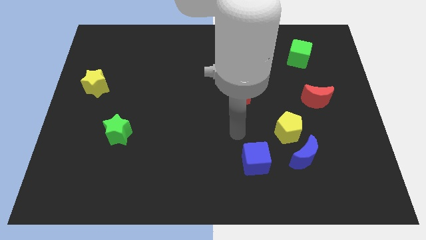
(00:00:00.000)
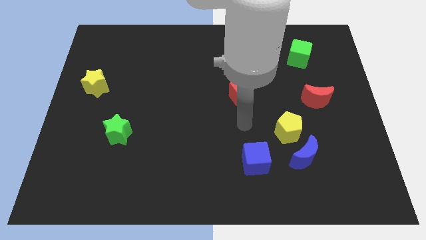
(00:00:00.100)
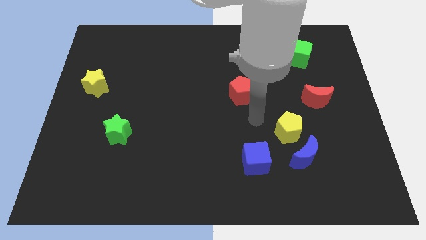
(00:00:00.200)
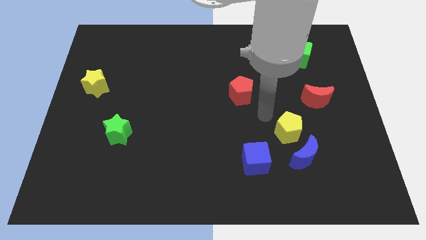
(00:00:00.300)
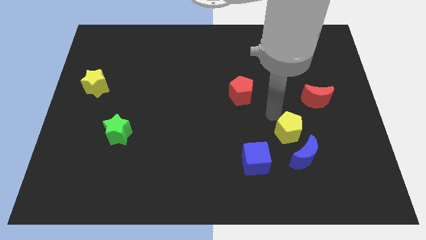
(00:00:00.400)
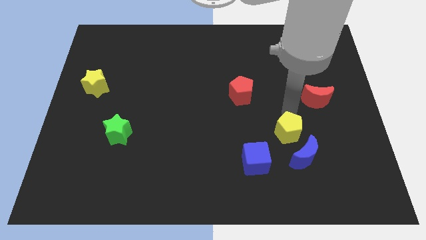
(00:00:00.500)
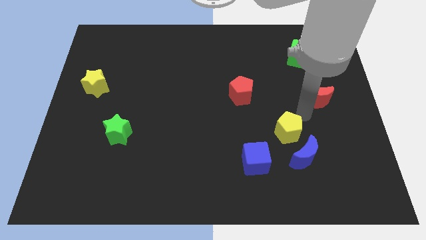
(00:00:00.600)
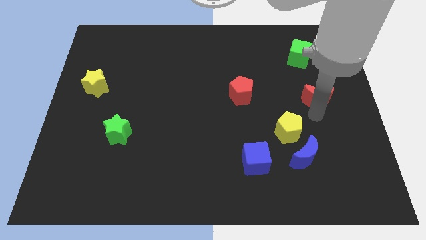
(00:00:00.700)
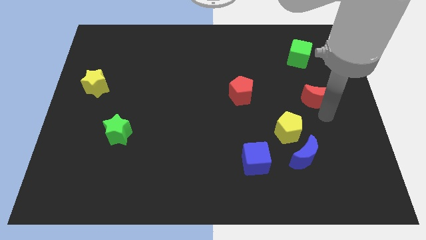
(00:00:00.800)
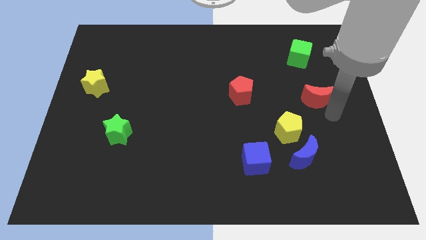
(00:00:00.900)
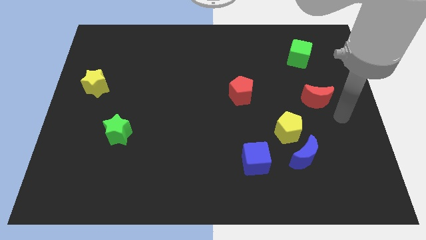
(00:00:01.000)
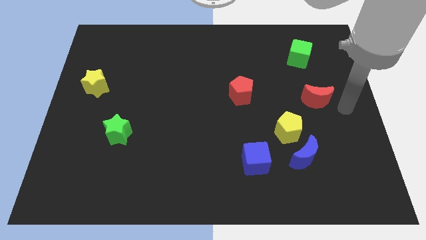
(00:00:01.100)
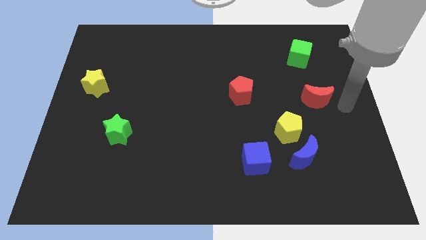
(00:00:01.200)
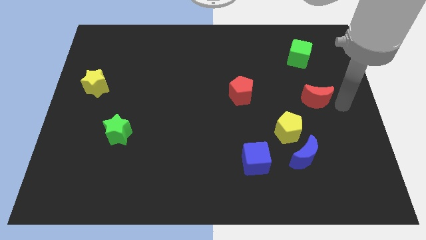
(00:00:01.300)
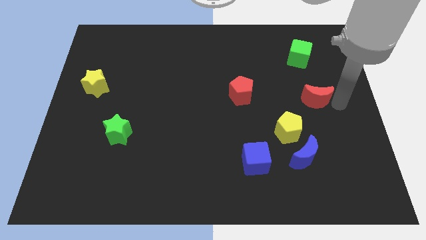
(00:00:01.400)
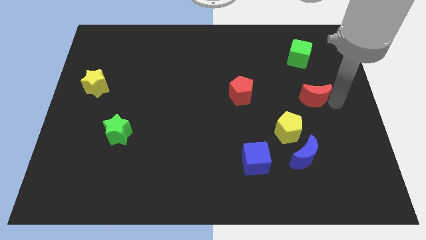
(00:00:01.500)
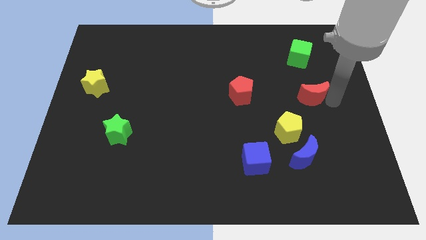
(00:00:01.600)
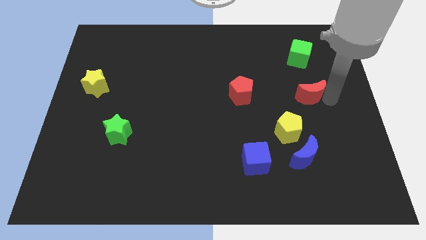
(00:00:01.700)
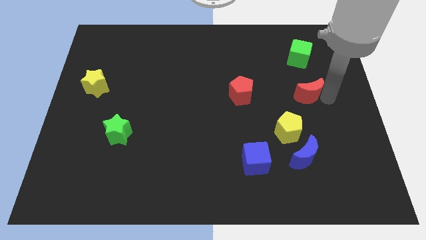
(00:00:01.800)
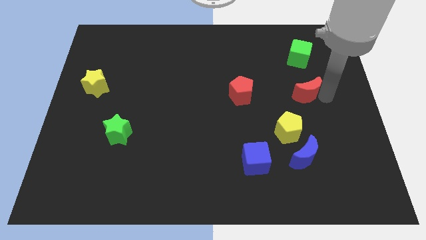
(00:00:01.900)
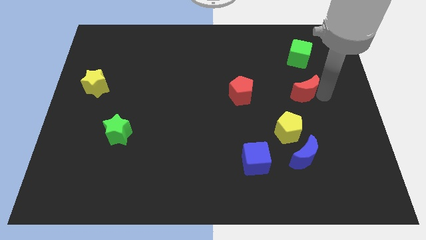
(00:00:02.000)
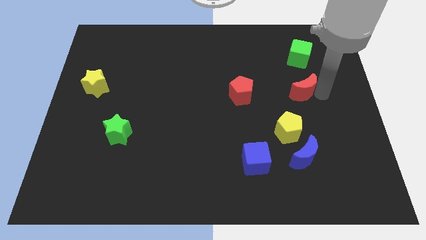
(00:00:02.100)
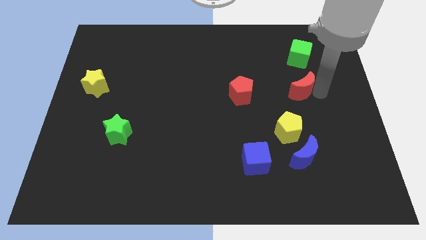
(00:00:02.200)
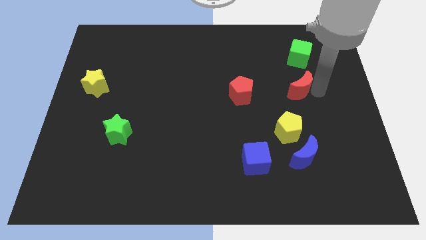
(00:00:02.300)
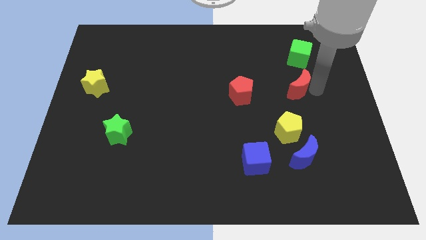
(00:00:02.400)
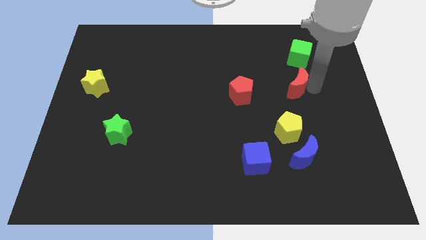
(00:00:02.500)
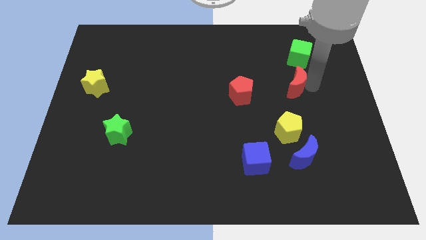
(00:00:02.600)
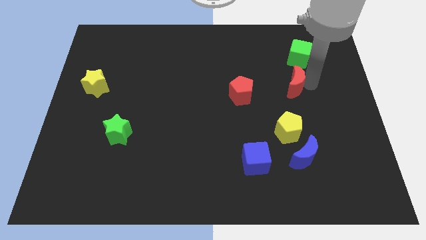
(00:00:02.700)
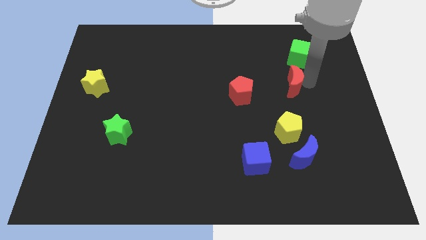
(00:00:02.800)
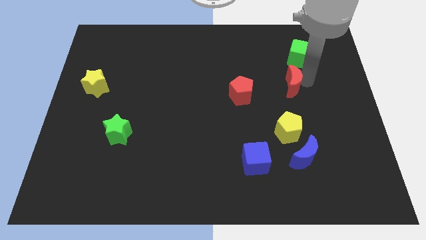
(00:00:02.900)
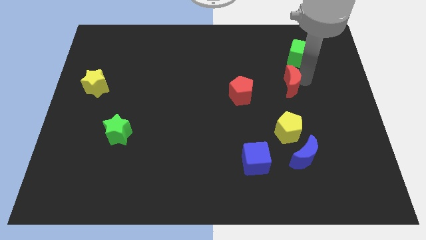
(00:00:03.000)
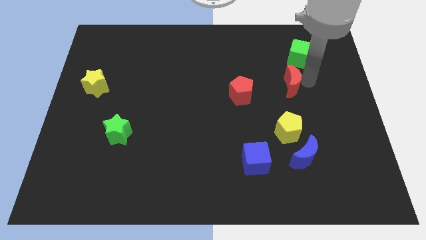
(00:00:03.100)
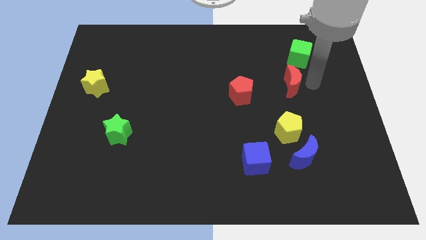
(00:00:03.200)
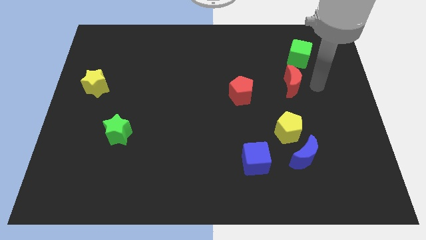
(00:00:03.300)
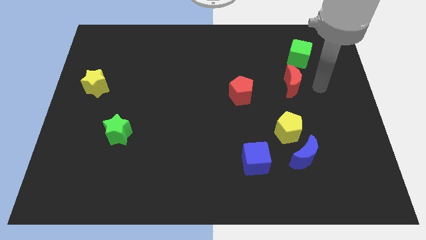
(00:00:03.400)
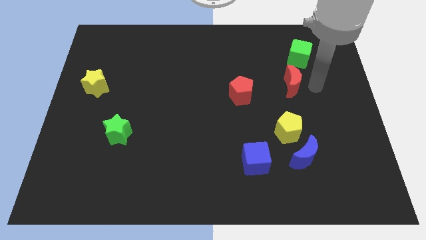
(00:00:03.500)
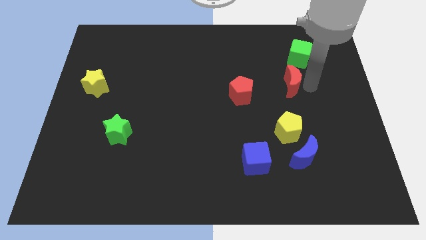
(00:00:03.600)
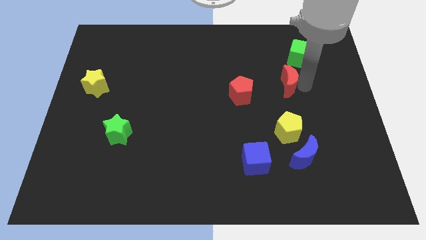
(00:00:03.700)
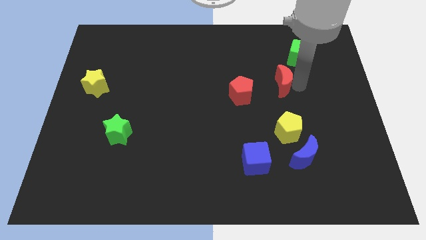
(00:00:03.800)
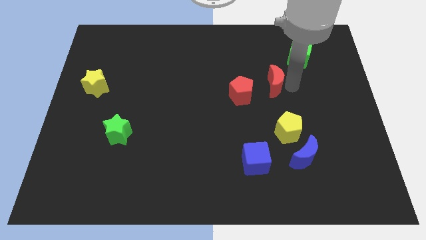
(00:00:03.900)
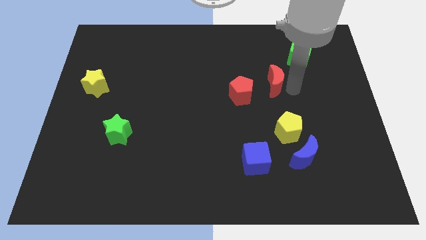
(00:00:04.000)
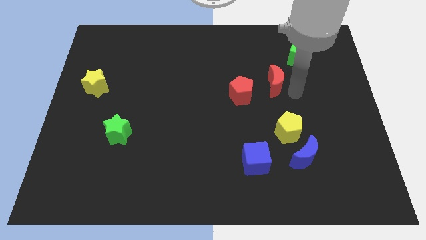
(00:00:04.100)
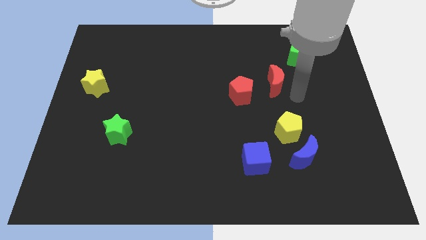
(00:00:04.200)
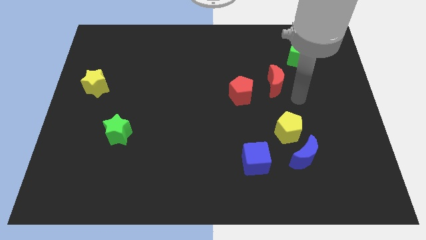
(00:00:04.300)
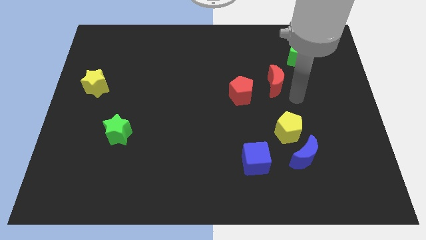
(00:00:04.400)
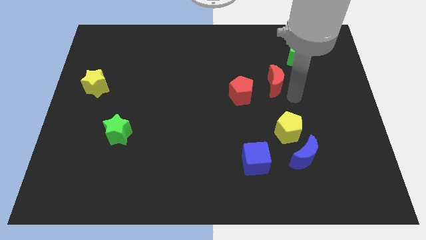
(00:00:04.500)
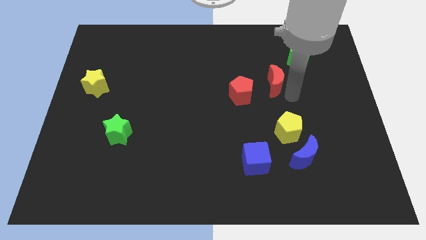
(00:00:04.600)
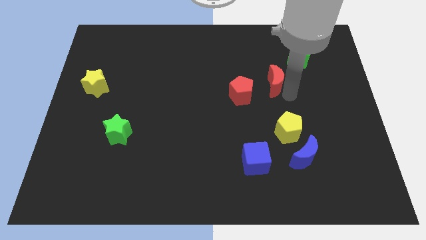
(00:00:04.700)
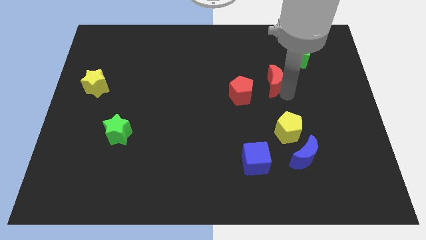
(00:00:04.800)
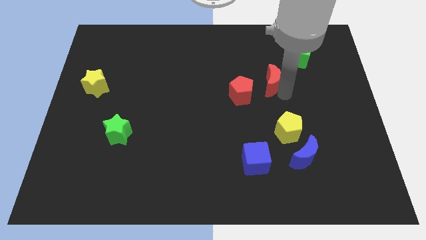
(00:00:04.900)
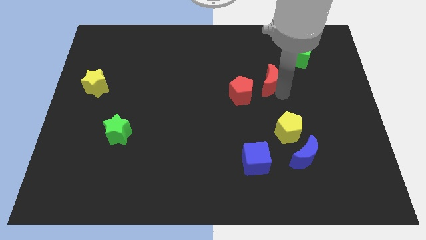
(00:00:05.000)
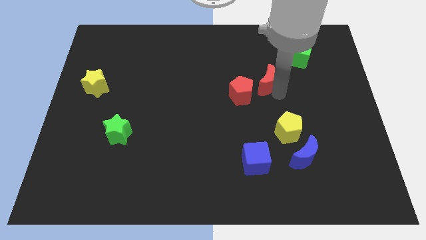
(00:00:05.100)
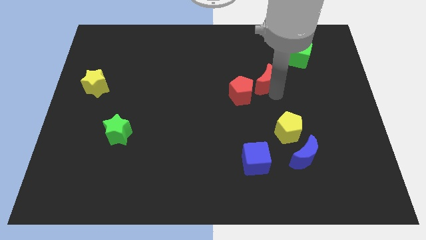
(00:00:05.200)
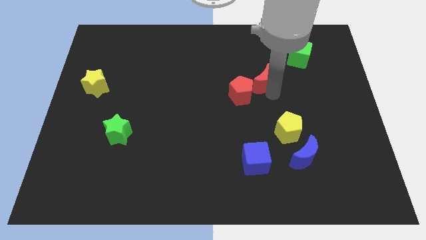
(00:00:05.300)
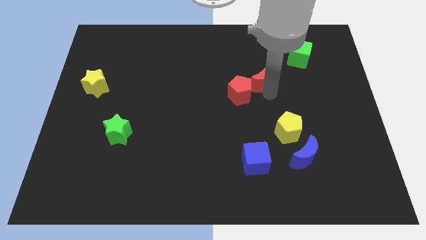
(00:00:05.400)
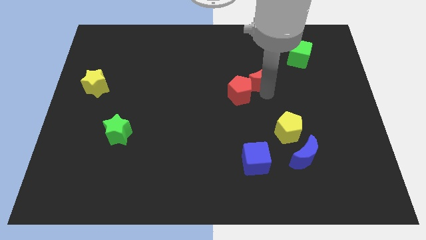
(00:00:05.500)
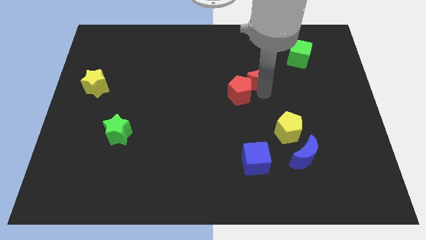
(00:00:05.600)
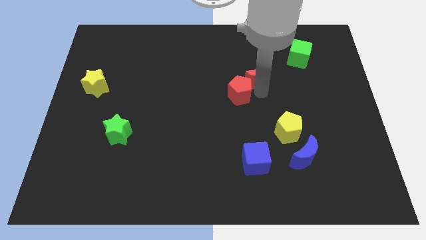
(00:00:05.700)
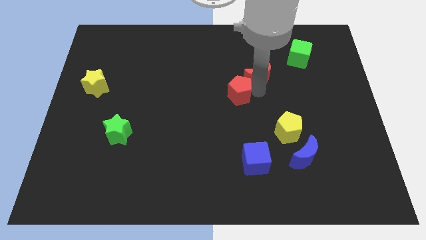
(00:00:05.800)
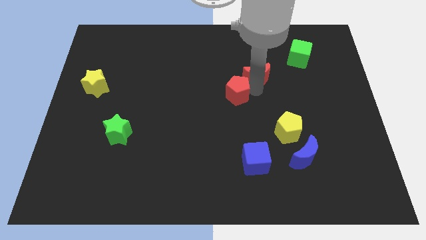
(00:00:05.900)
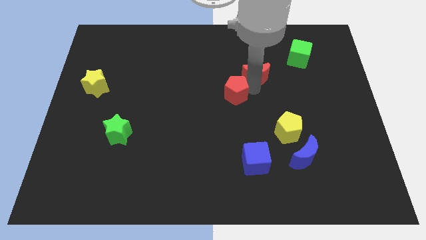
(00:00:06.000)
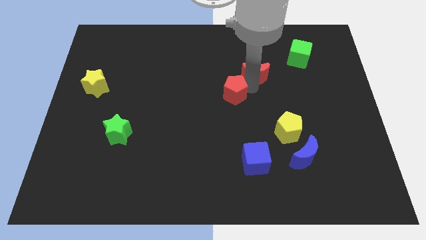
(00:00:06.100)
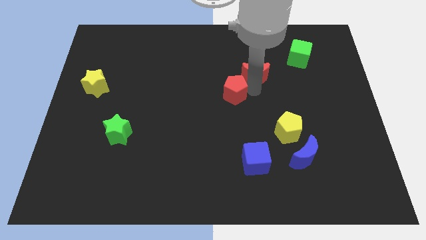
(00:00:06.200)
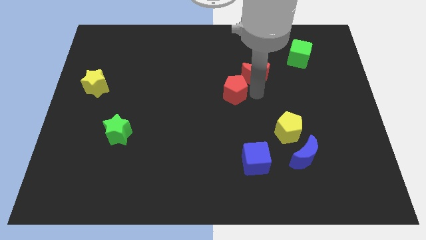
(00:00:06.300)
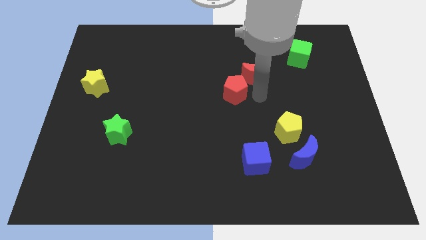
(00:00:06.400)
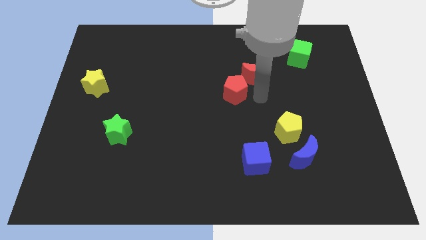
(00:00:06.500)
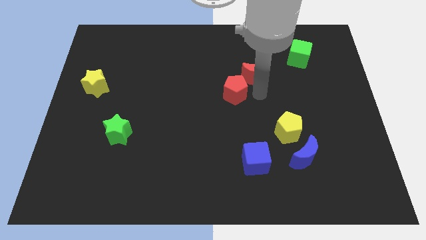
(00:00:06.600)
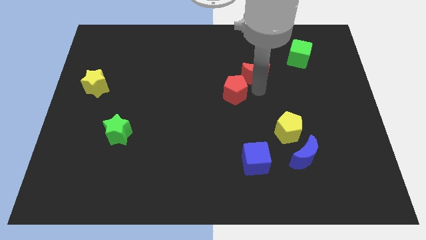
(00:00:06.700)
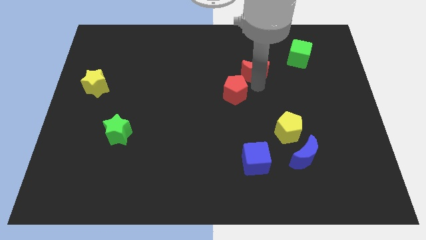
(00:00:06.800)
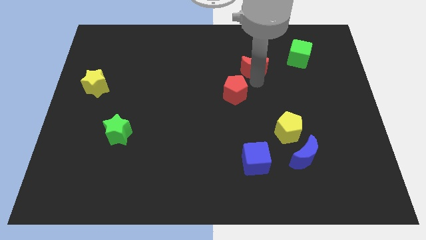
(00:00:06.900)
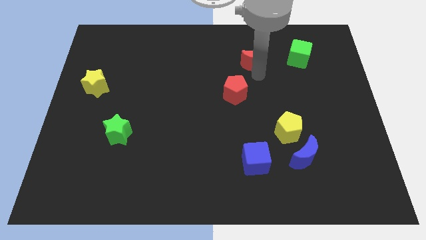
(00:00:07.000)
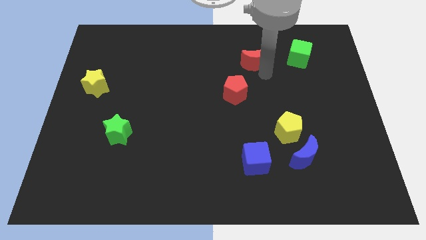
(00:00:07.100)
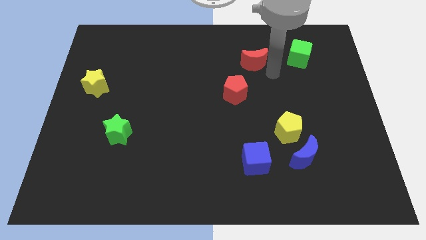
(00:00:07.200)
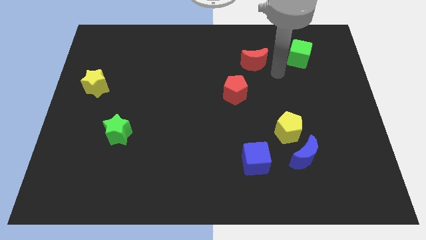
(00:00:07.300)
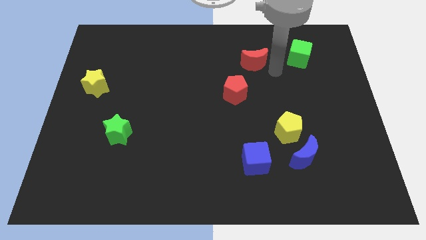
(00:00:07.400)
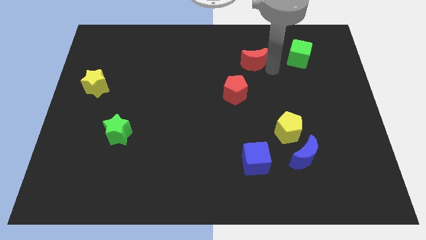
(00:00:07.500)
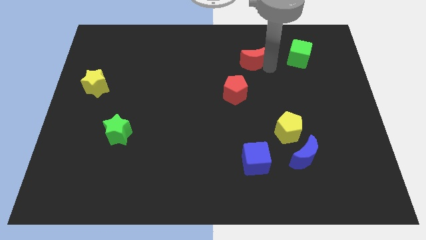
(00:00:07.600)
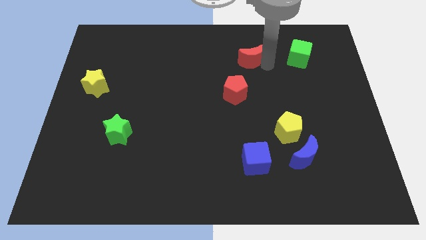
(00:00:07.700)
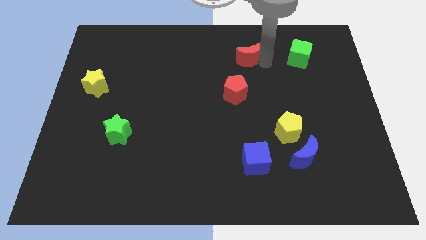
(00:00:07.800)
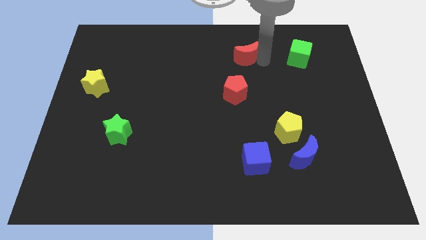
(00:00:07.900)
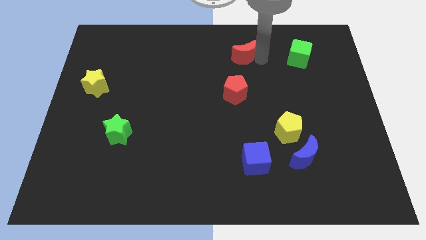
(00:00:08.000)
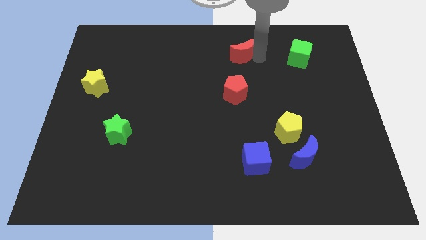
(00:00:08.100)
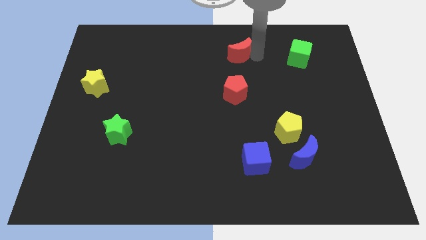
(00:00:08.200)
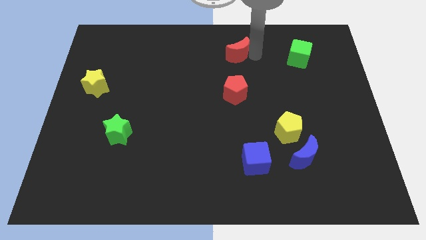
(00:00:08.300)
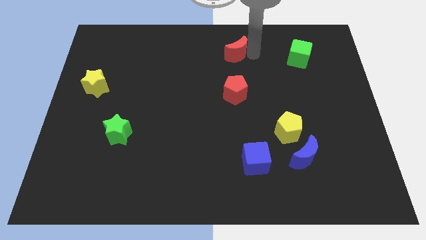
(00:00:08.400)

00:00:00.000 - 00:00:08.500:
slide the red moon to the top side
